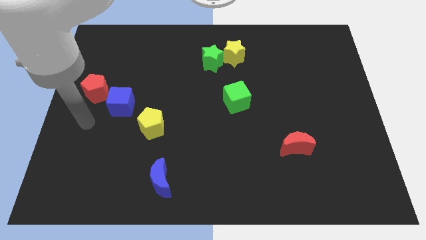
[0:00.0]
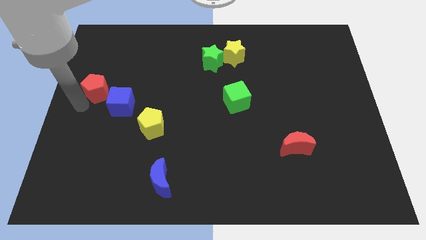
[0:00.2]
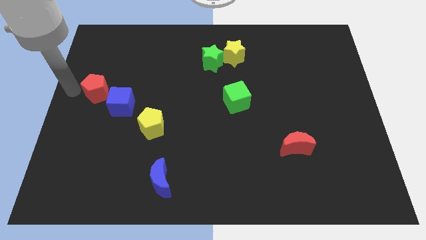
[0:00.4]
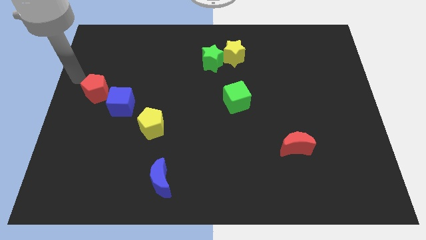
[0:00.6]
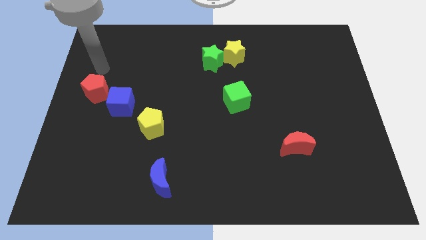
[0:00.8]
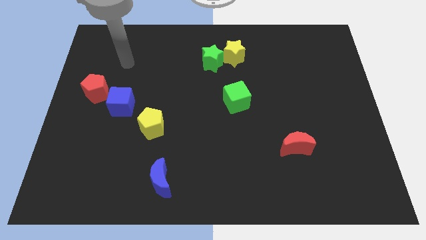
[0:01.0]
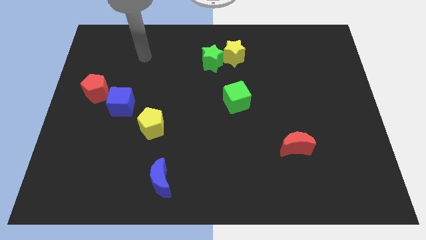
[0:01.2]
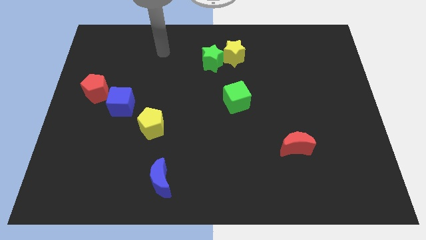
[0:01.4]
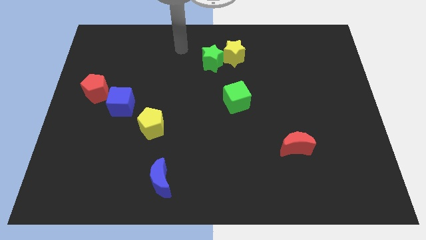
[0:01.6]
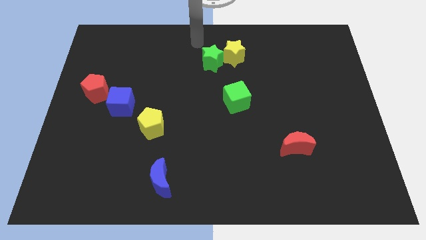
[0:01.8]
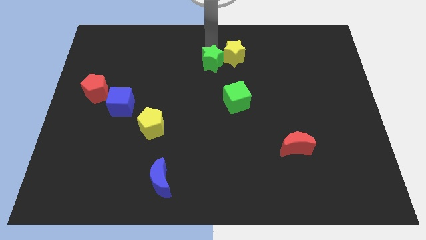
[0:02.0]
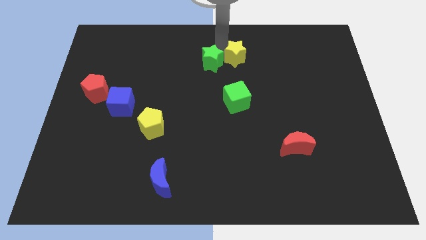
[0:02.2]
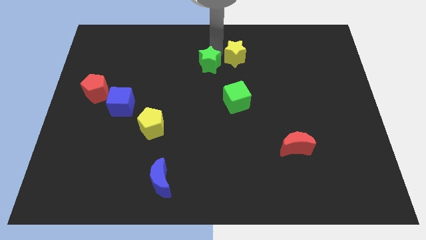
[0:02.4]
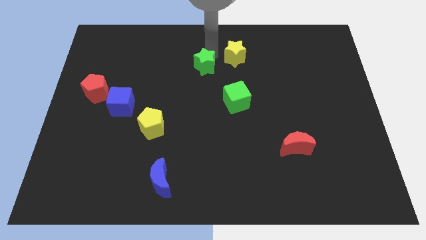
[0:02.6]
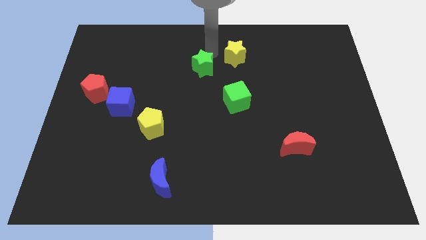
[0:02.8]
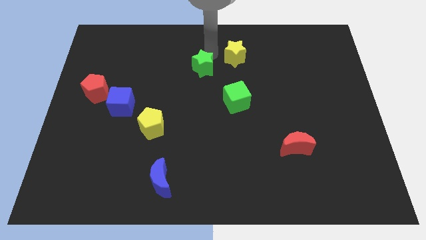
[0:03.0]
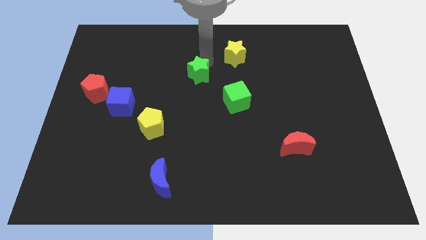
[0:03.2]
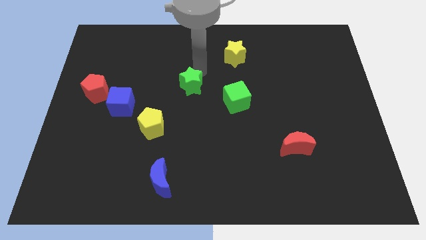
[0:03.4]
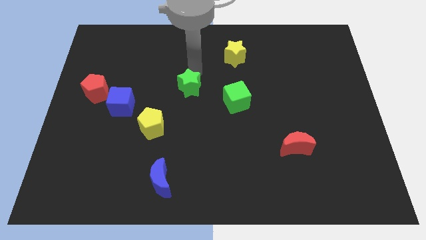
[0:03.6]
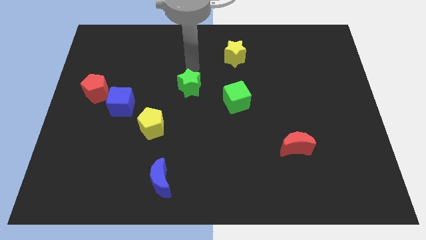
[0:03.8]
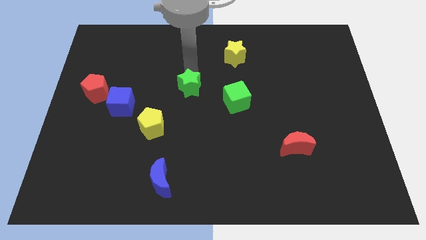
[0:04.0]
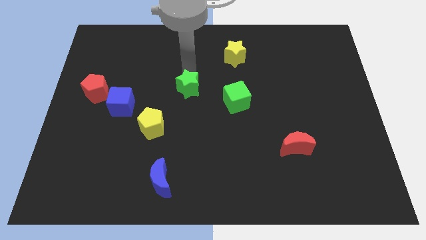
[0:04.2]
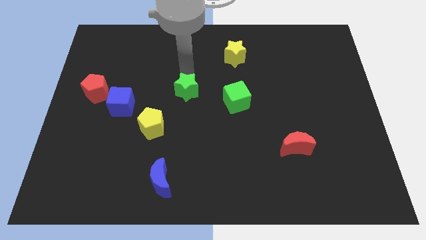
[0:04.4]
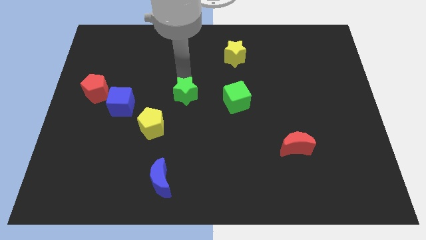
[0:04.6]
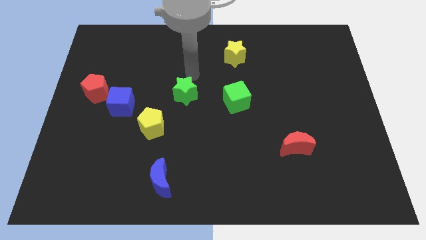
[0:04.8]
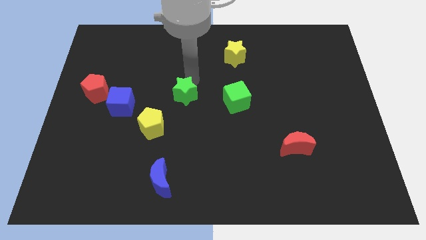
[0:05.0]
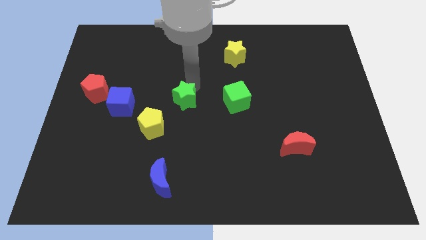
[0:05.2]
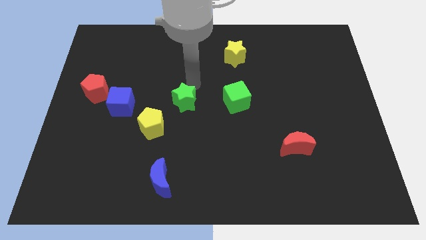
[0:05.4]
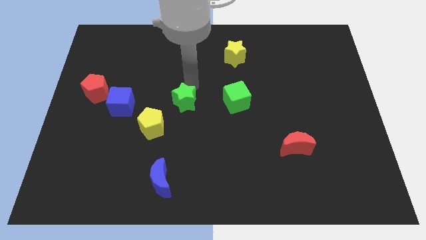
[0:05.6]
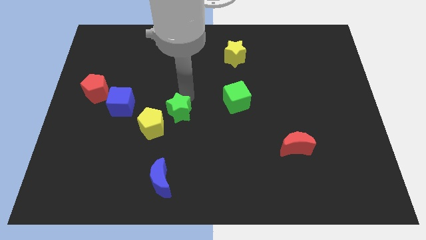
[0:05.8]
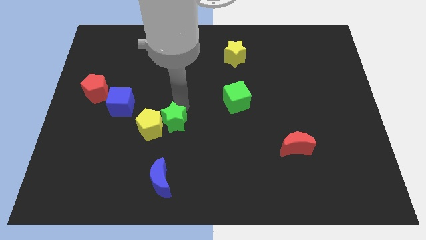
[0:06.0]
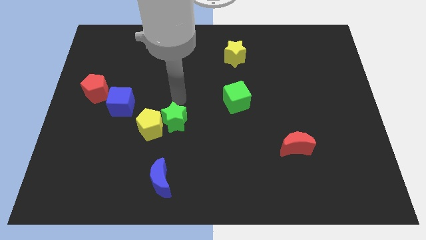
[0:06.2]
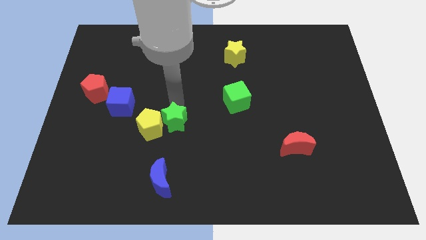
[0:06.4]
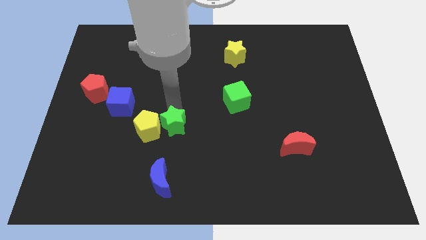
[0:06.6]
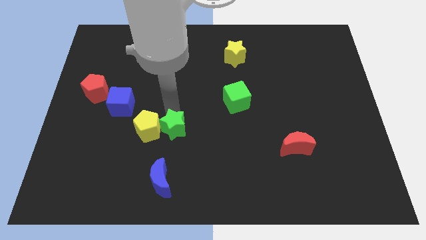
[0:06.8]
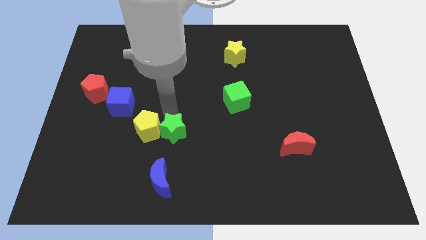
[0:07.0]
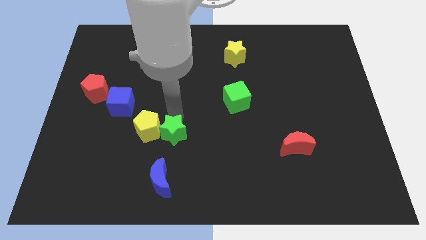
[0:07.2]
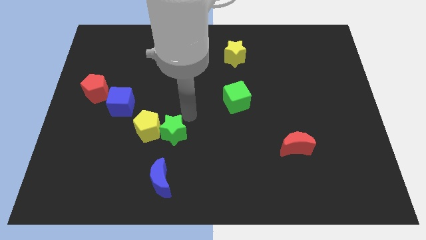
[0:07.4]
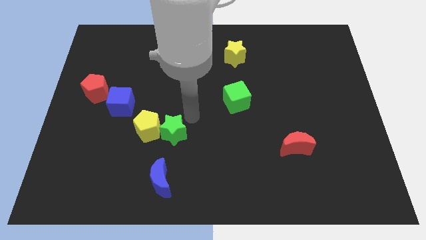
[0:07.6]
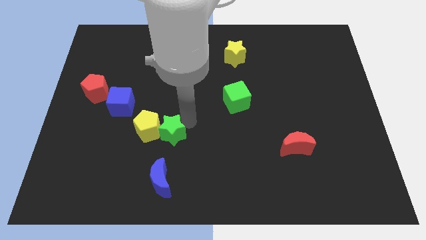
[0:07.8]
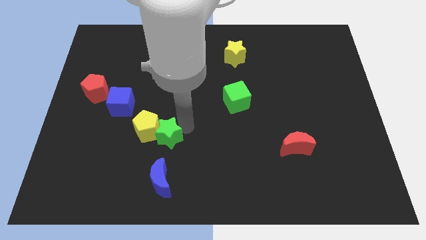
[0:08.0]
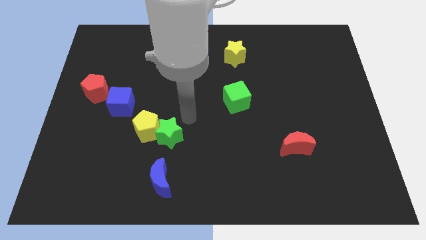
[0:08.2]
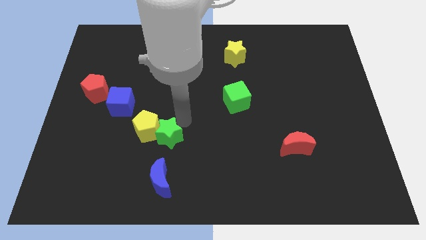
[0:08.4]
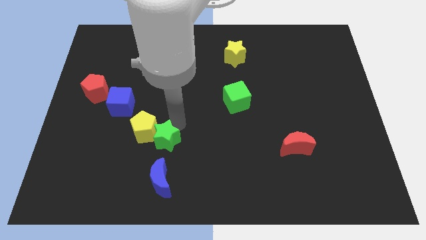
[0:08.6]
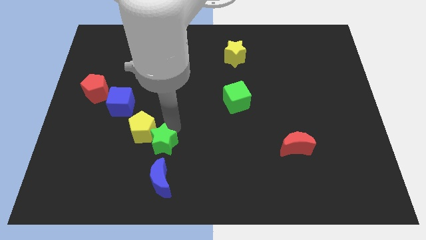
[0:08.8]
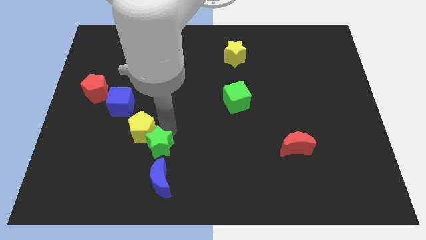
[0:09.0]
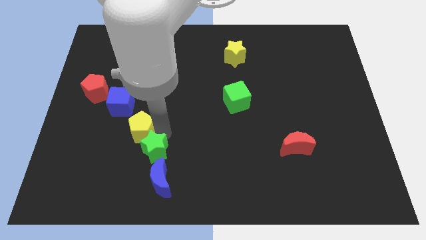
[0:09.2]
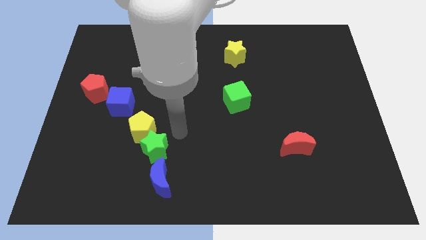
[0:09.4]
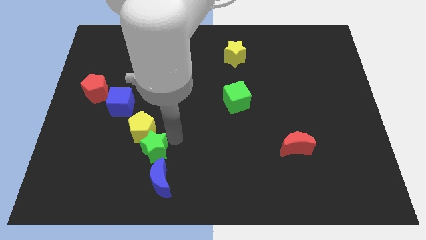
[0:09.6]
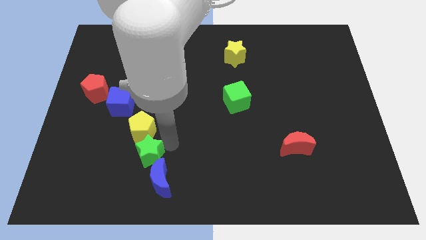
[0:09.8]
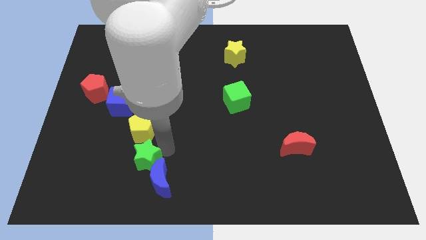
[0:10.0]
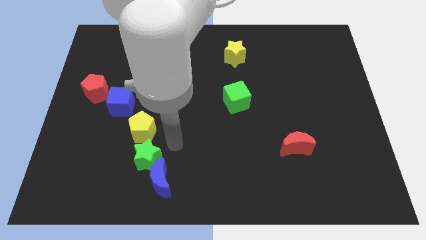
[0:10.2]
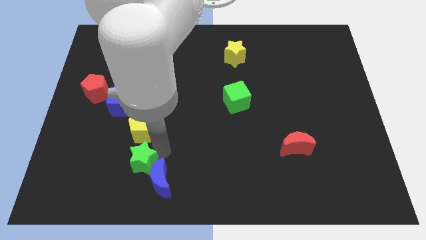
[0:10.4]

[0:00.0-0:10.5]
put the green star to the left of the blue moon

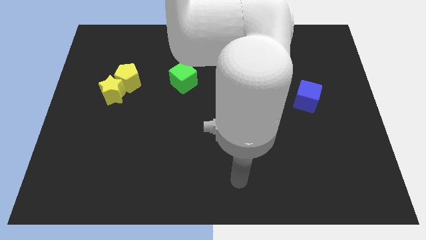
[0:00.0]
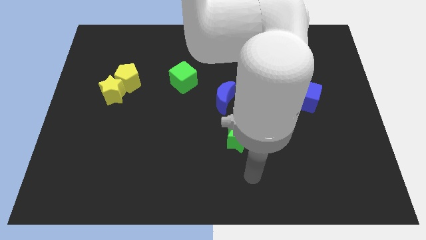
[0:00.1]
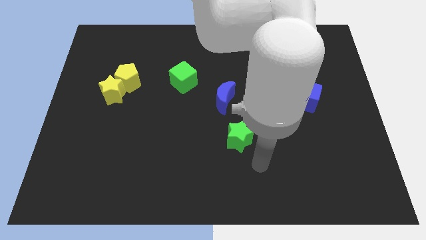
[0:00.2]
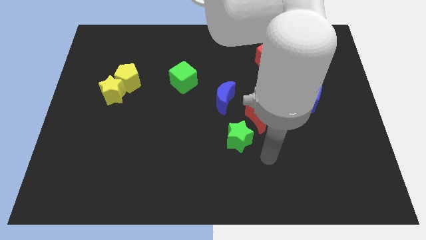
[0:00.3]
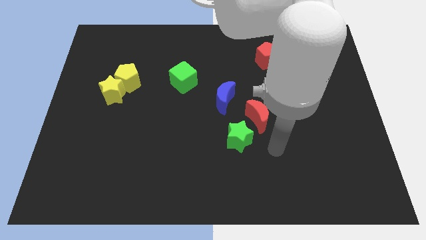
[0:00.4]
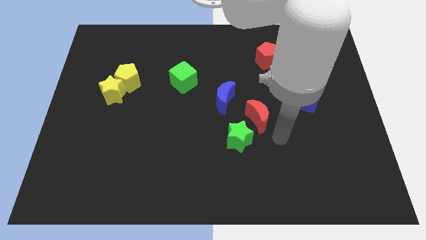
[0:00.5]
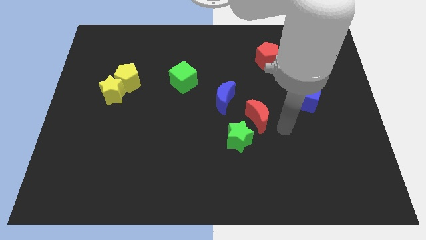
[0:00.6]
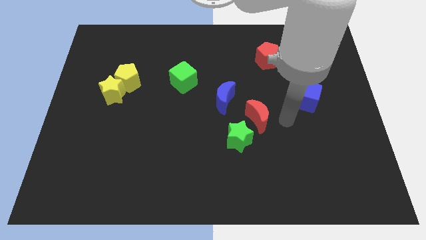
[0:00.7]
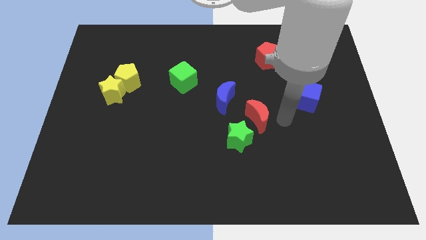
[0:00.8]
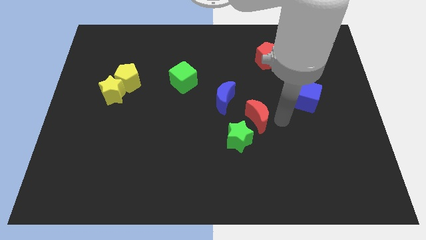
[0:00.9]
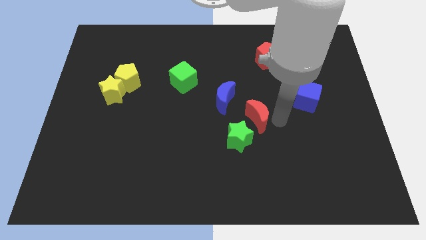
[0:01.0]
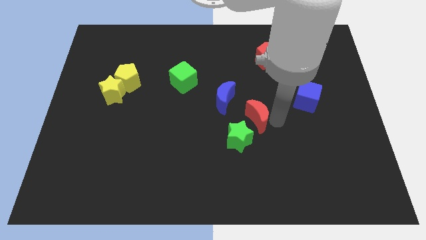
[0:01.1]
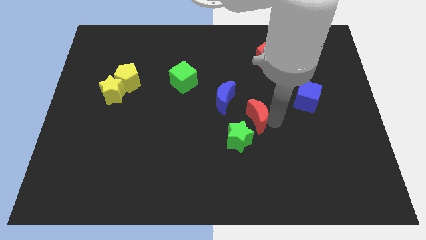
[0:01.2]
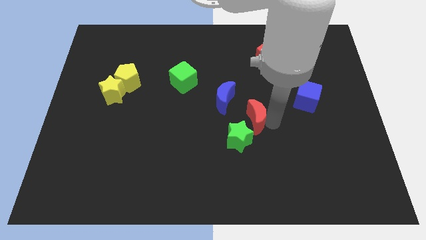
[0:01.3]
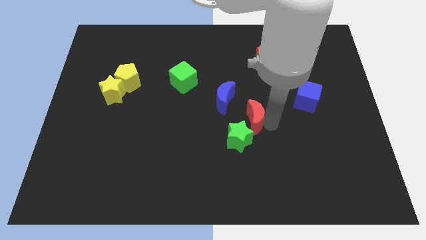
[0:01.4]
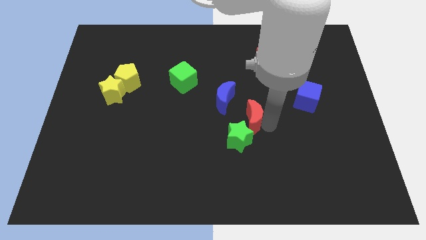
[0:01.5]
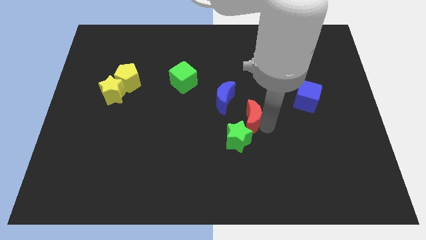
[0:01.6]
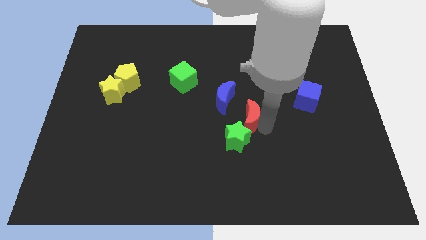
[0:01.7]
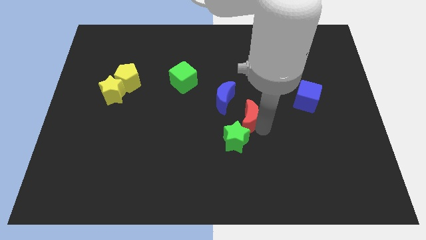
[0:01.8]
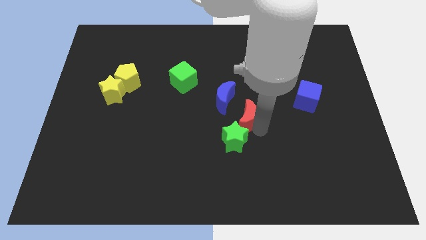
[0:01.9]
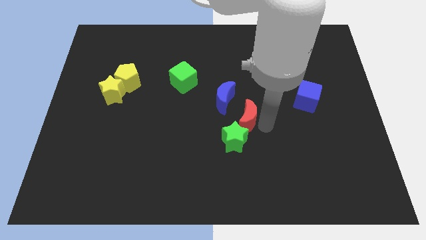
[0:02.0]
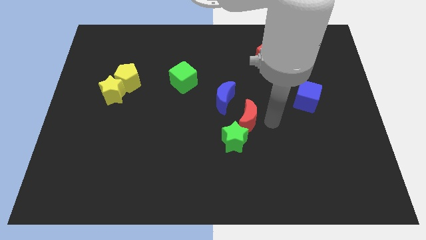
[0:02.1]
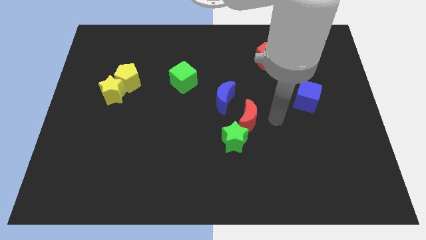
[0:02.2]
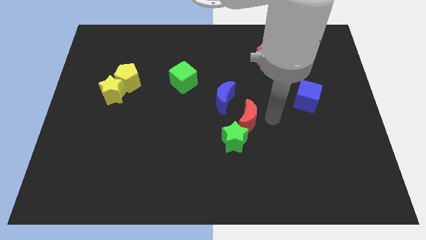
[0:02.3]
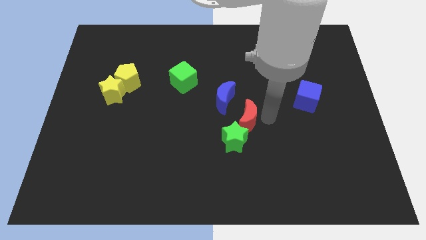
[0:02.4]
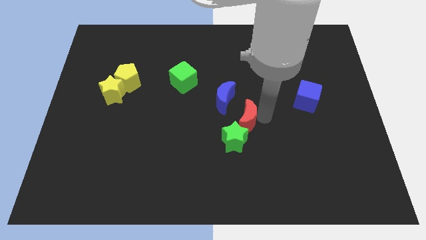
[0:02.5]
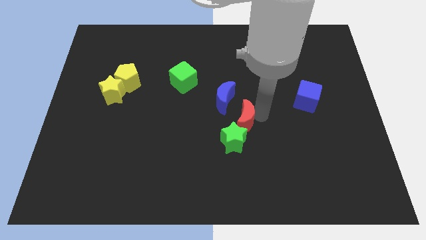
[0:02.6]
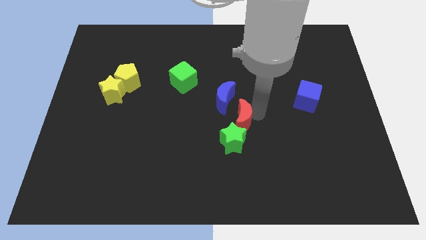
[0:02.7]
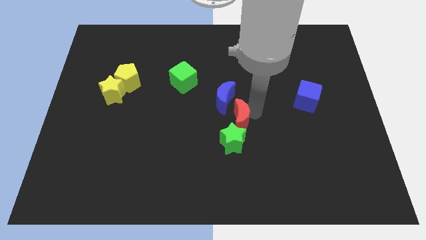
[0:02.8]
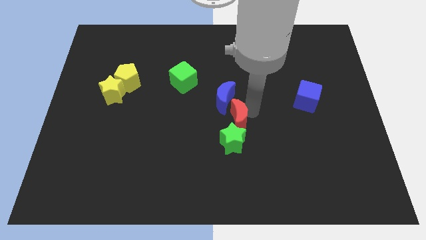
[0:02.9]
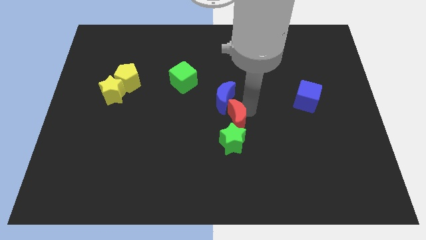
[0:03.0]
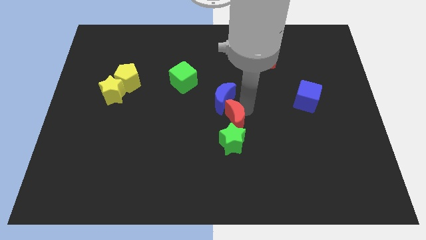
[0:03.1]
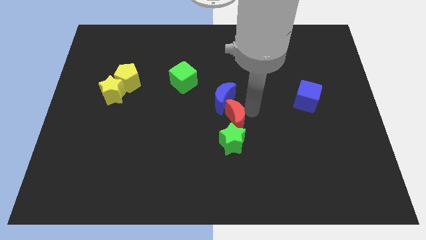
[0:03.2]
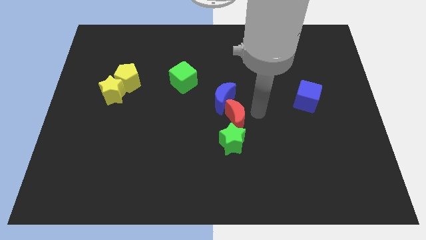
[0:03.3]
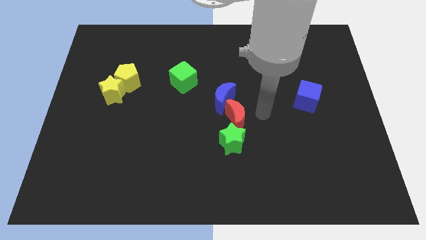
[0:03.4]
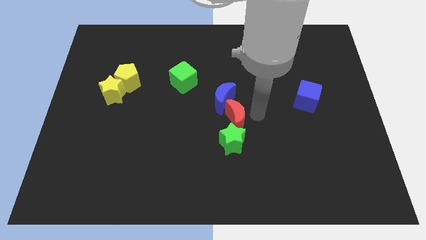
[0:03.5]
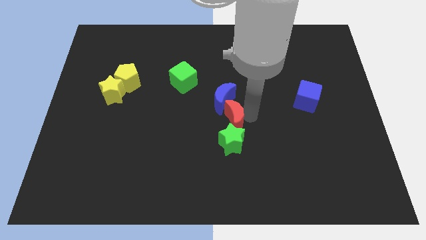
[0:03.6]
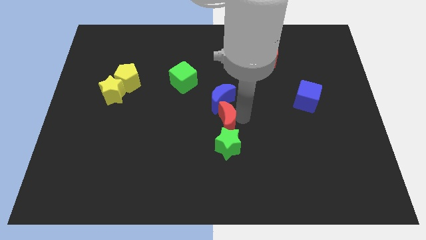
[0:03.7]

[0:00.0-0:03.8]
put the red moon diagonally up and to the left of the green star
